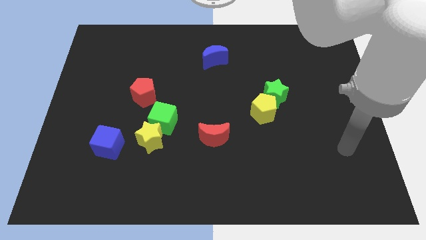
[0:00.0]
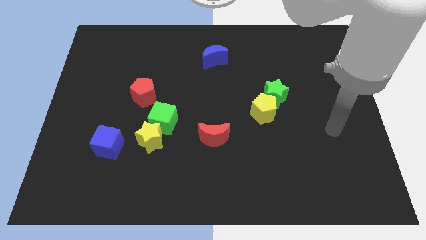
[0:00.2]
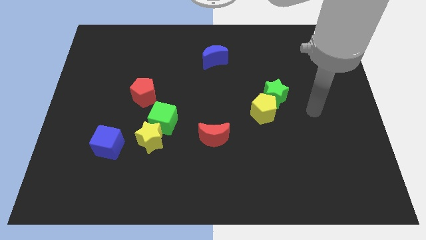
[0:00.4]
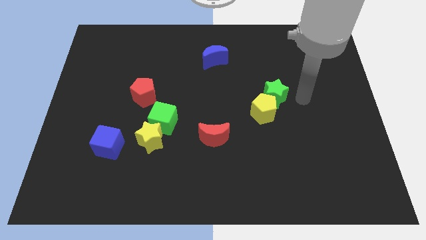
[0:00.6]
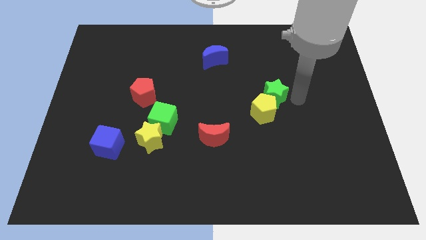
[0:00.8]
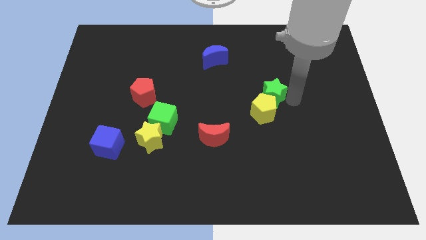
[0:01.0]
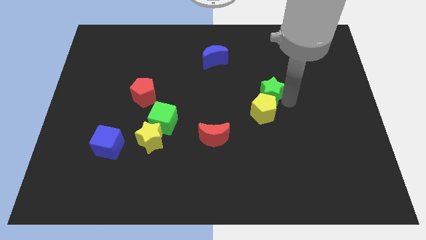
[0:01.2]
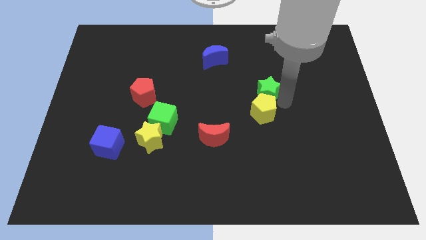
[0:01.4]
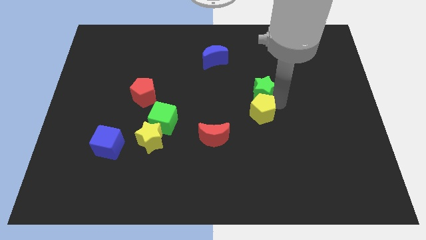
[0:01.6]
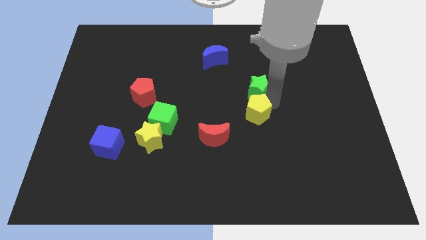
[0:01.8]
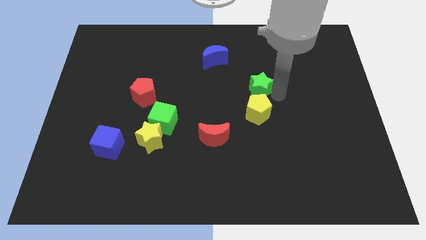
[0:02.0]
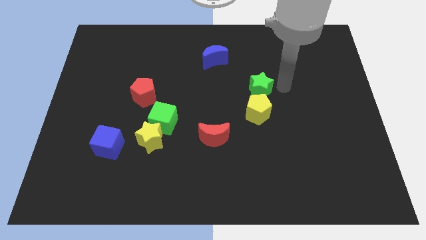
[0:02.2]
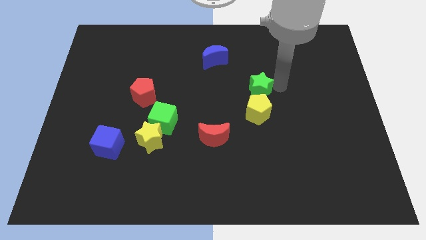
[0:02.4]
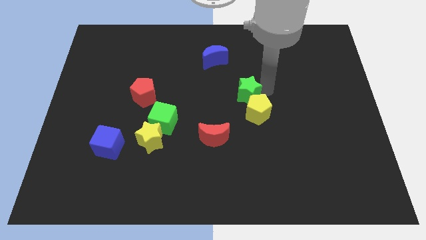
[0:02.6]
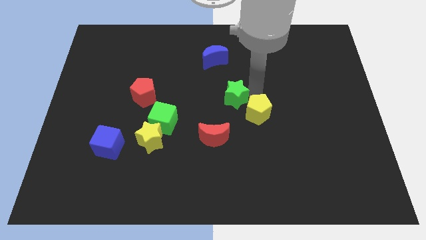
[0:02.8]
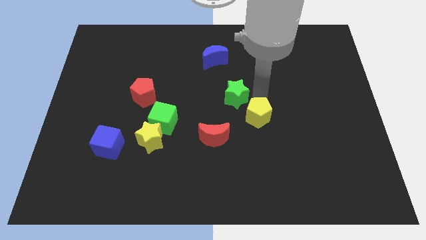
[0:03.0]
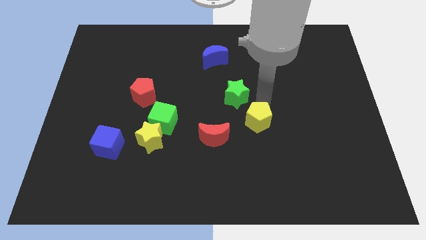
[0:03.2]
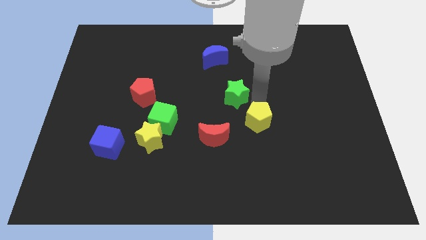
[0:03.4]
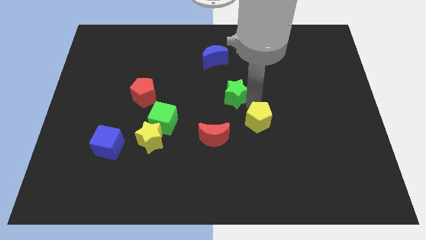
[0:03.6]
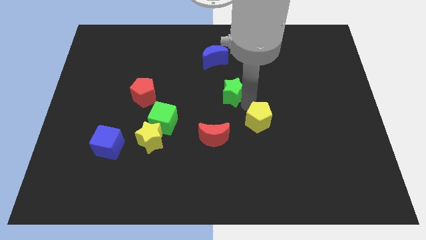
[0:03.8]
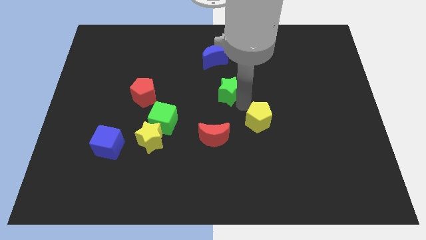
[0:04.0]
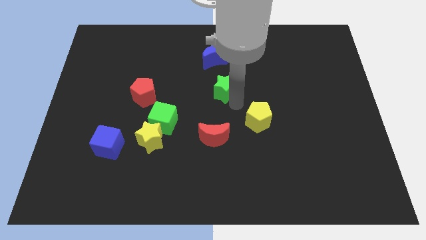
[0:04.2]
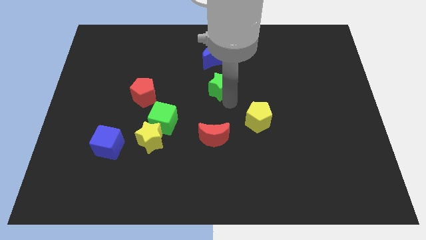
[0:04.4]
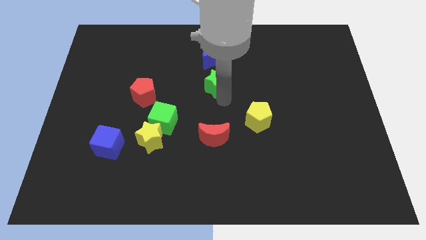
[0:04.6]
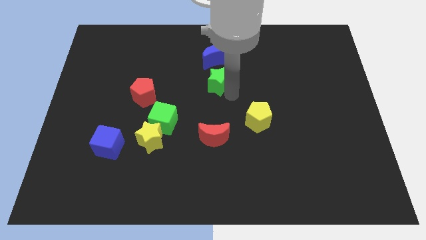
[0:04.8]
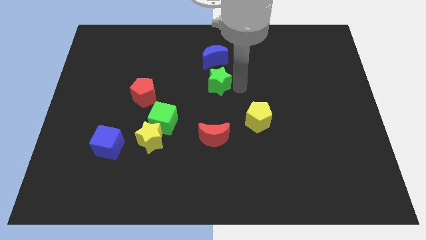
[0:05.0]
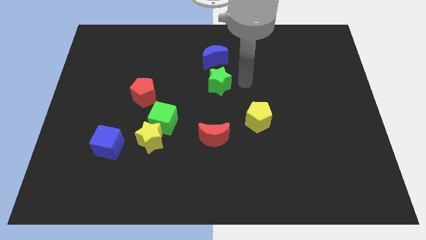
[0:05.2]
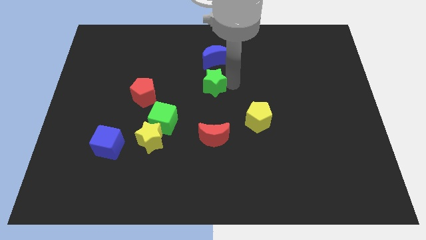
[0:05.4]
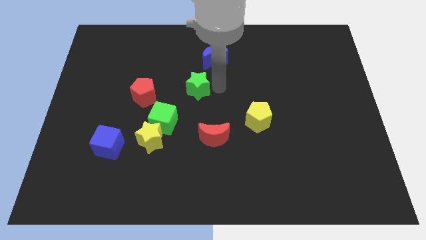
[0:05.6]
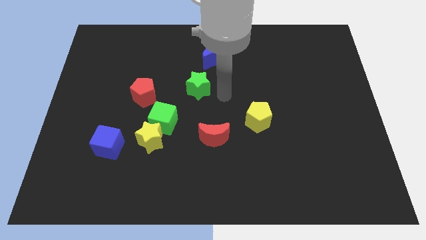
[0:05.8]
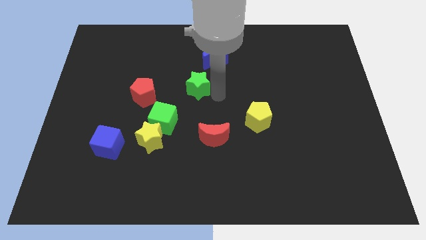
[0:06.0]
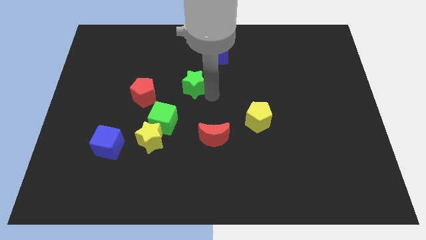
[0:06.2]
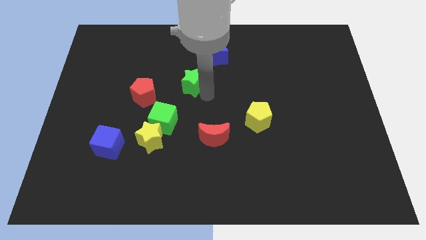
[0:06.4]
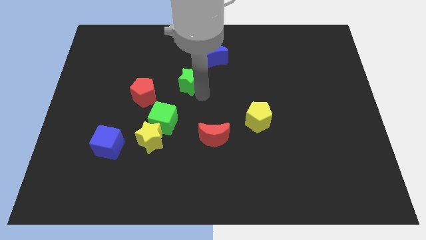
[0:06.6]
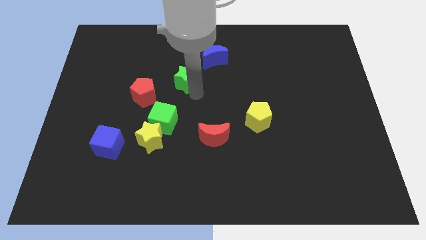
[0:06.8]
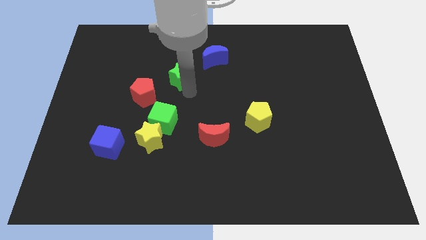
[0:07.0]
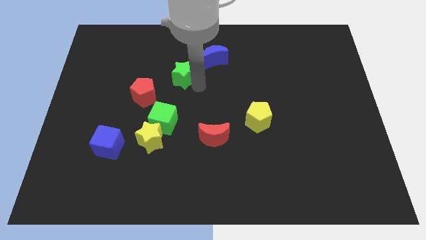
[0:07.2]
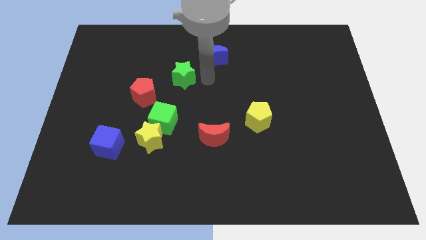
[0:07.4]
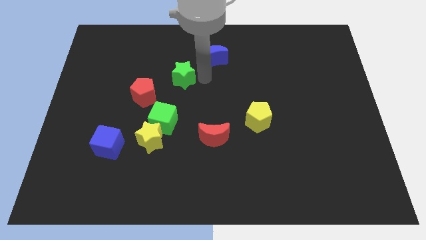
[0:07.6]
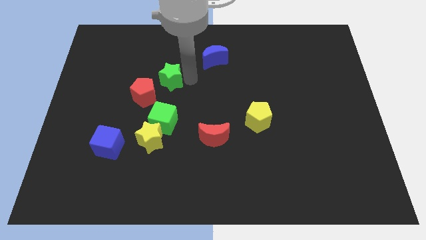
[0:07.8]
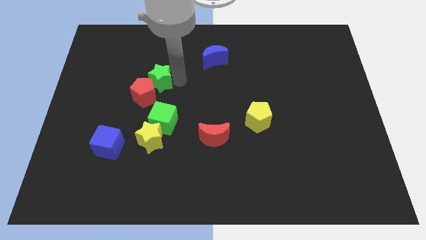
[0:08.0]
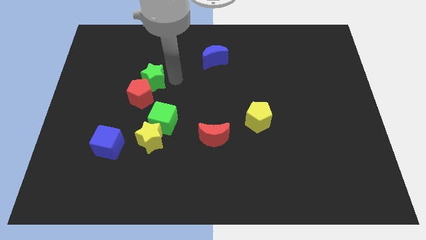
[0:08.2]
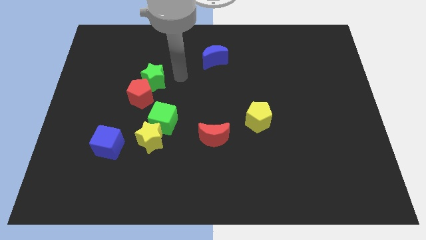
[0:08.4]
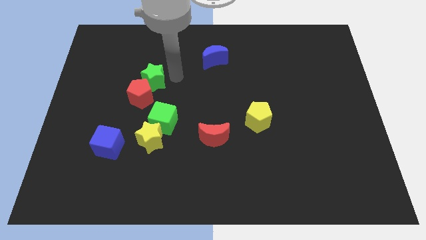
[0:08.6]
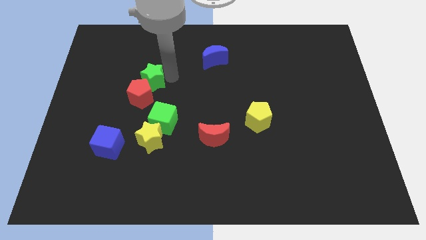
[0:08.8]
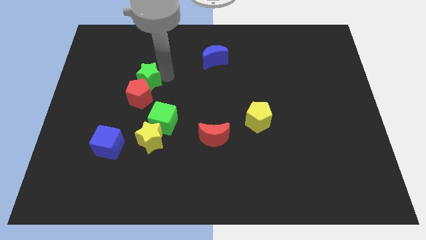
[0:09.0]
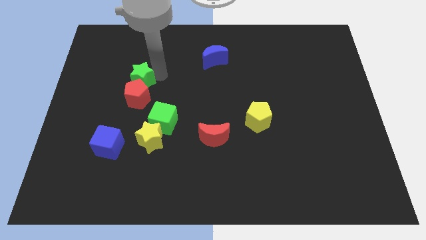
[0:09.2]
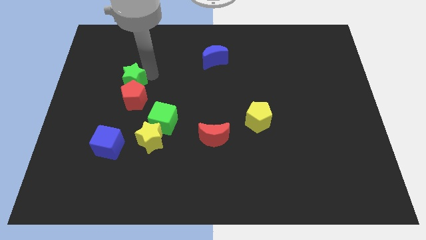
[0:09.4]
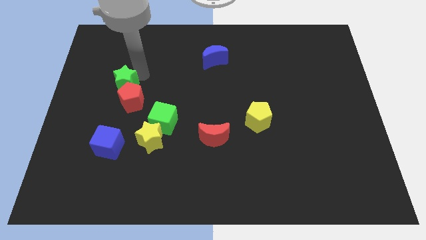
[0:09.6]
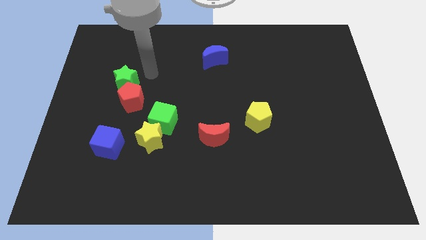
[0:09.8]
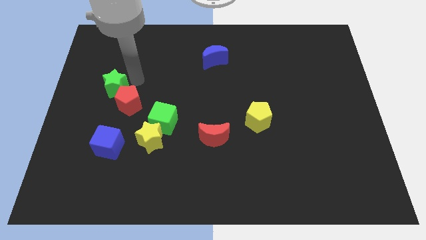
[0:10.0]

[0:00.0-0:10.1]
put the green star just left of the red pentagon

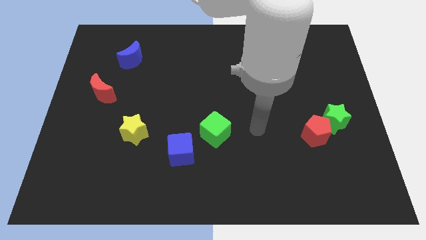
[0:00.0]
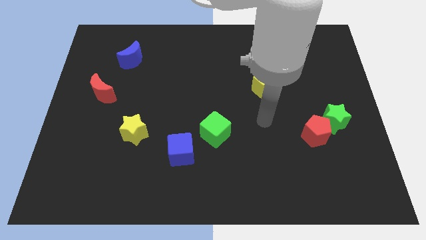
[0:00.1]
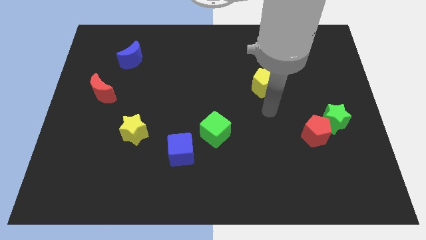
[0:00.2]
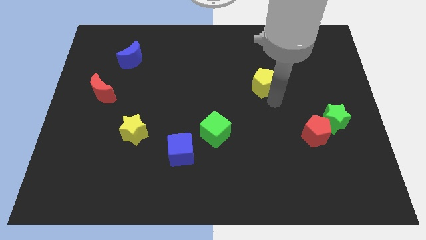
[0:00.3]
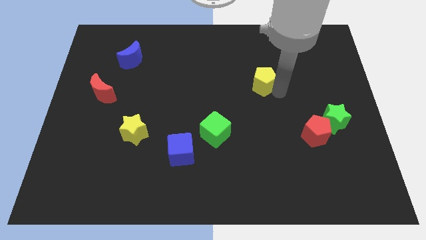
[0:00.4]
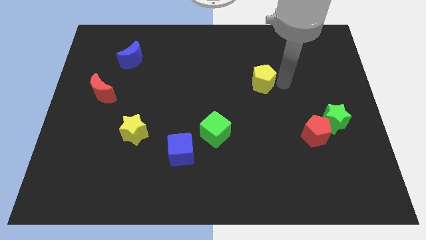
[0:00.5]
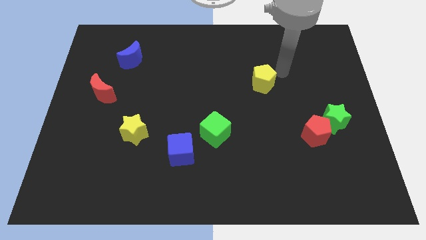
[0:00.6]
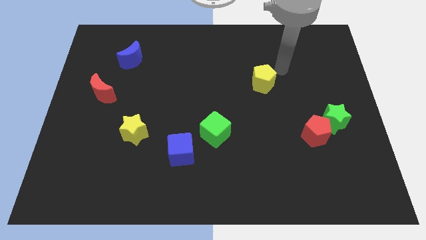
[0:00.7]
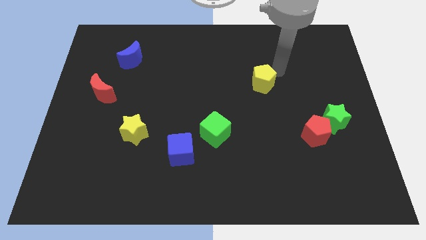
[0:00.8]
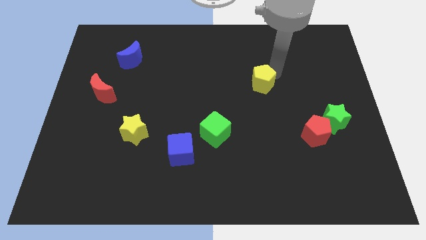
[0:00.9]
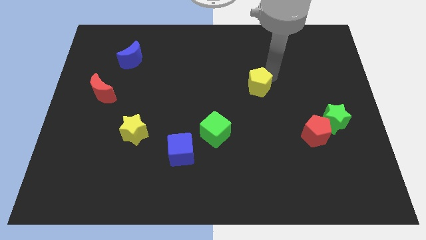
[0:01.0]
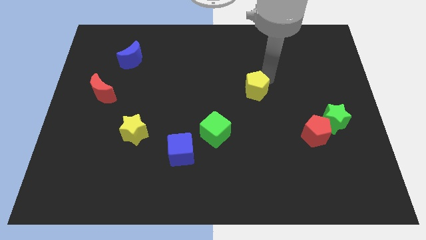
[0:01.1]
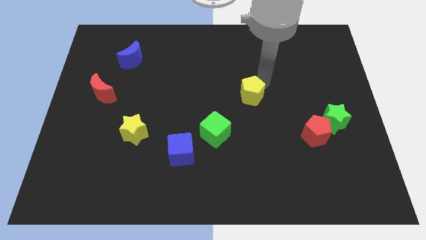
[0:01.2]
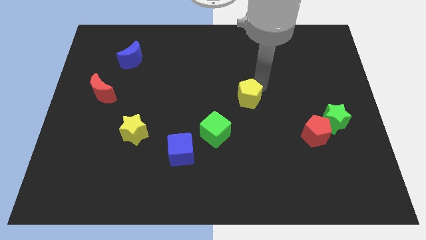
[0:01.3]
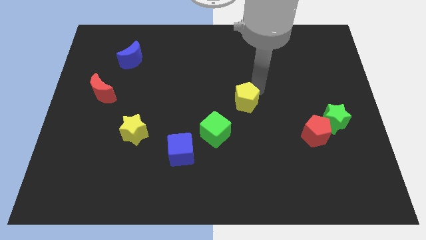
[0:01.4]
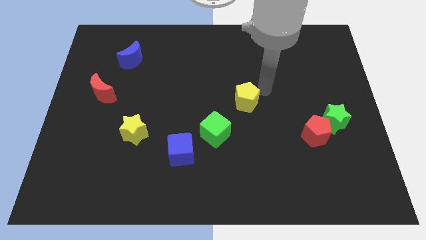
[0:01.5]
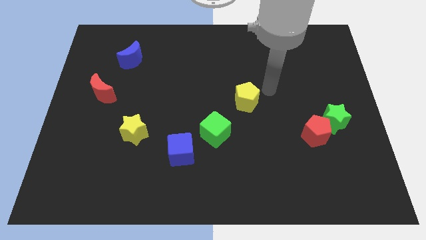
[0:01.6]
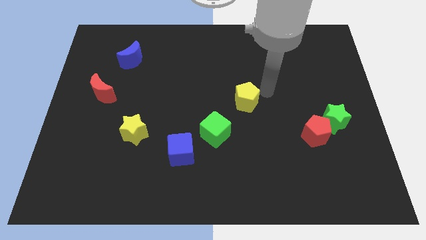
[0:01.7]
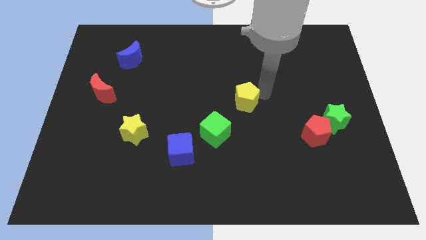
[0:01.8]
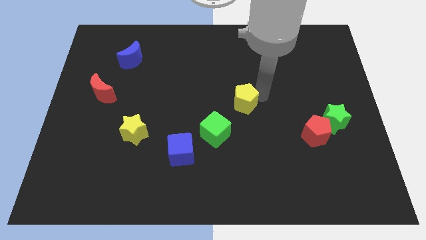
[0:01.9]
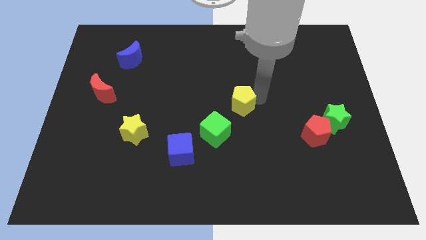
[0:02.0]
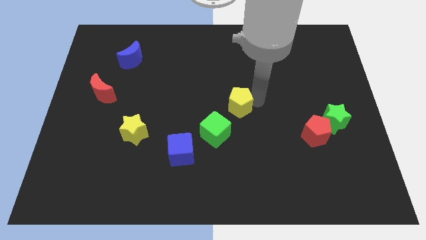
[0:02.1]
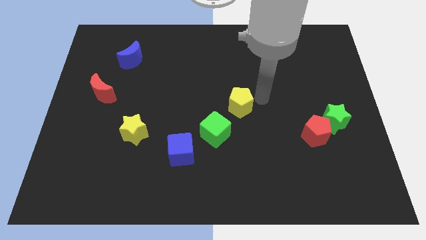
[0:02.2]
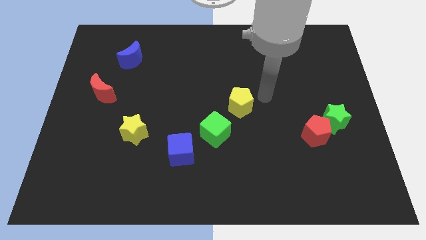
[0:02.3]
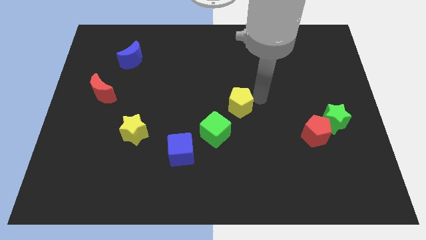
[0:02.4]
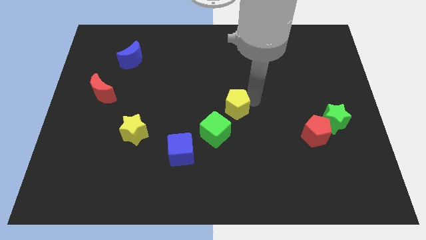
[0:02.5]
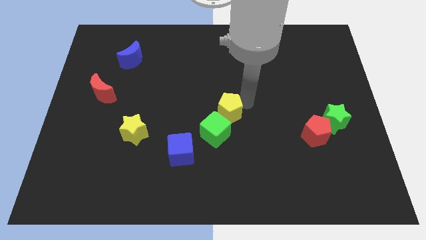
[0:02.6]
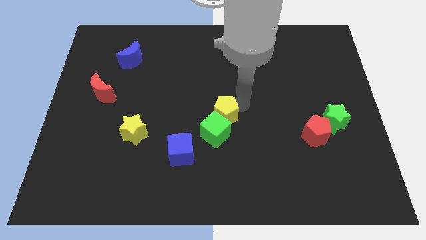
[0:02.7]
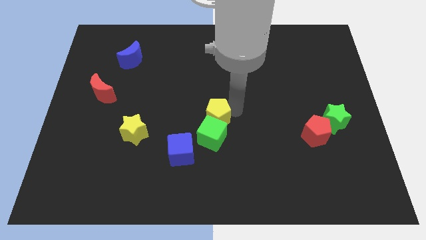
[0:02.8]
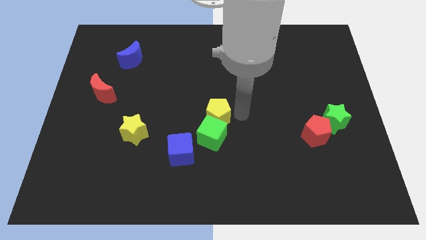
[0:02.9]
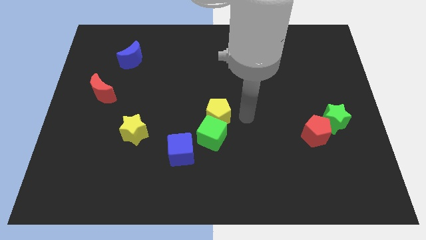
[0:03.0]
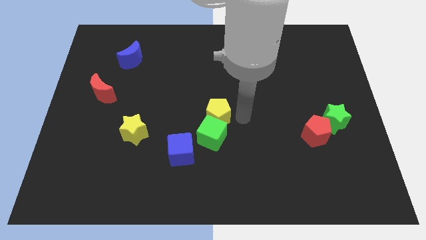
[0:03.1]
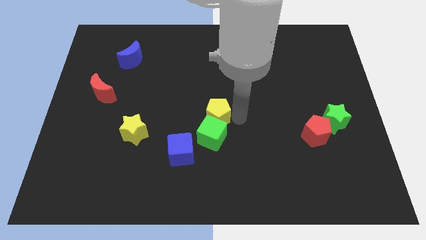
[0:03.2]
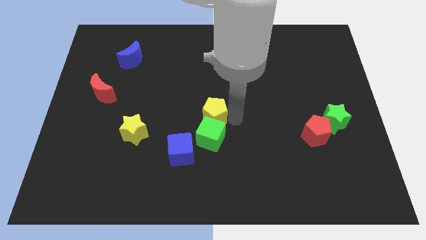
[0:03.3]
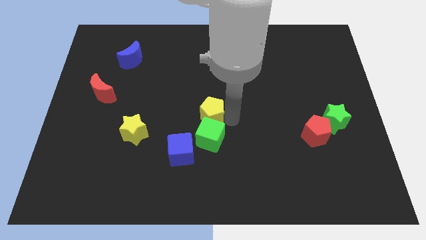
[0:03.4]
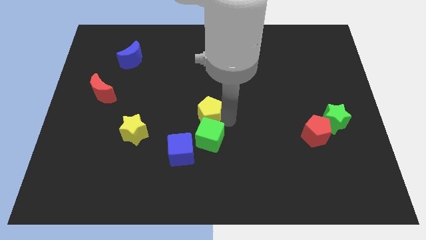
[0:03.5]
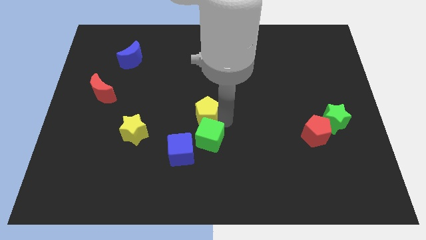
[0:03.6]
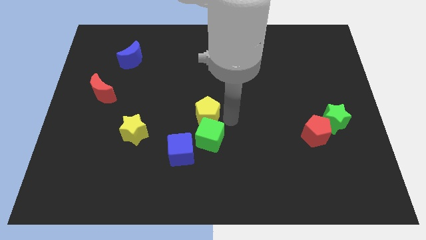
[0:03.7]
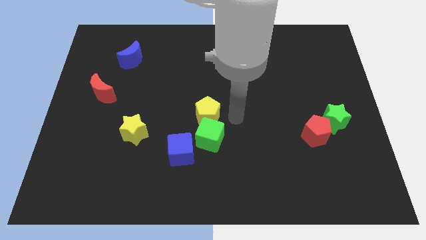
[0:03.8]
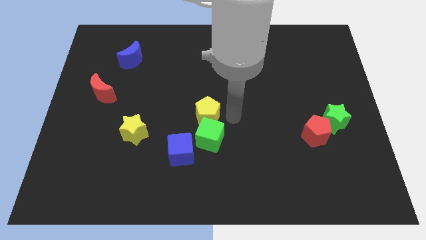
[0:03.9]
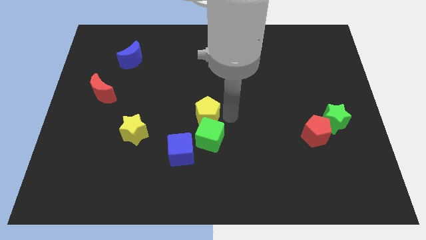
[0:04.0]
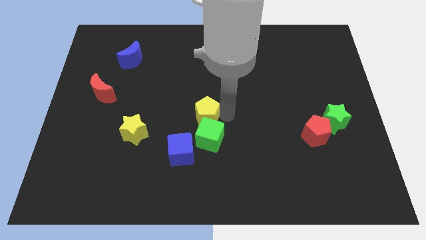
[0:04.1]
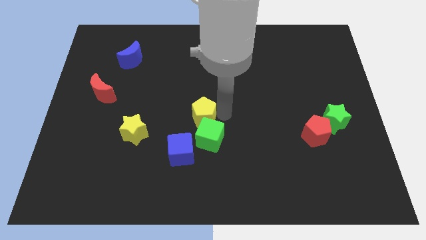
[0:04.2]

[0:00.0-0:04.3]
move the yellow pentagon above the blue cube
